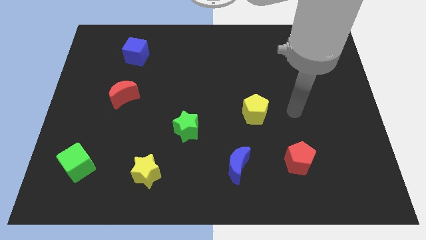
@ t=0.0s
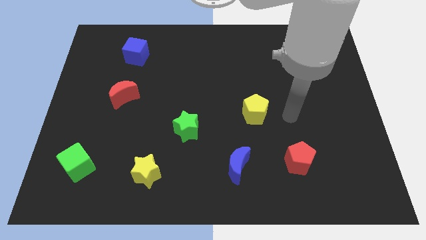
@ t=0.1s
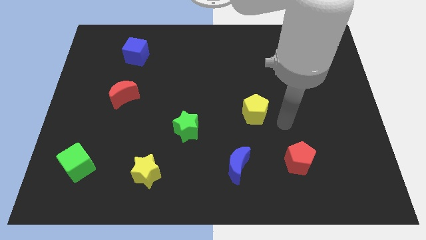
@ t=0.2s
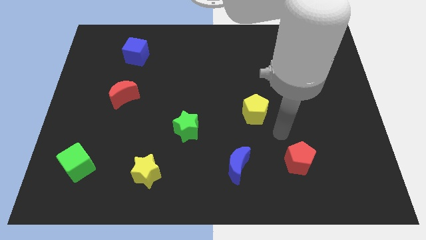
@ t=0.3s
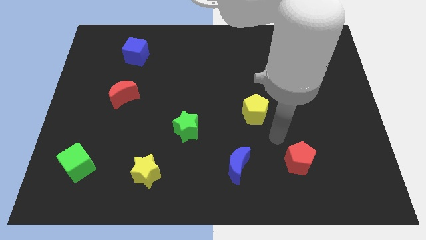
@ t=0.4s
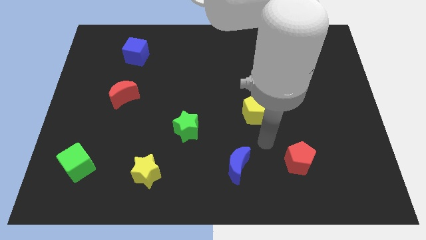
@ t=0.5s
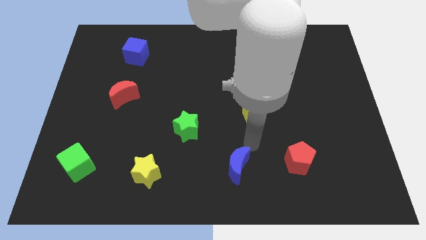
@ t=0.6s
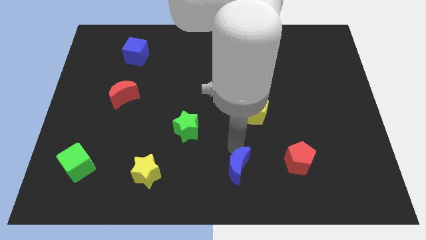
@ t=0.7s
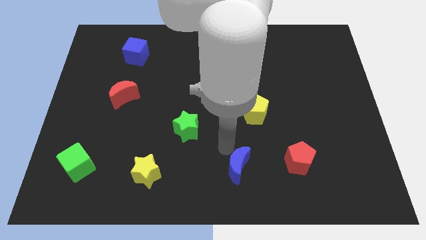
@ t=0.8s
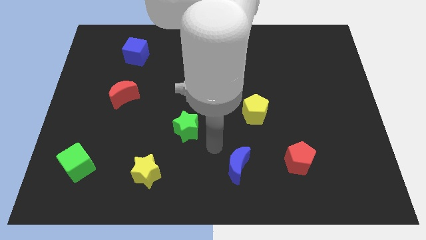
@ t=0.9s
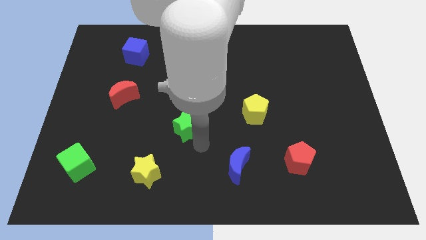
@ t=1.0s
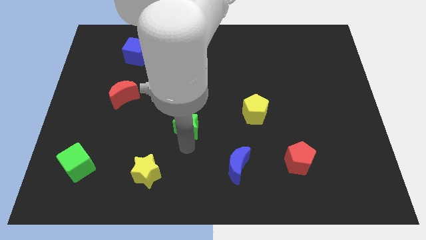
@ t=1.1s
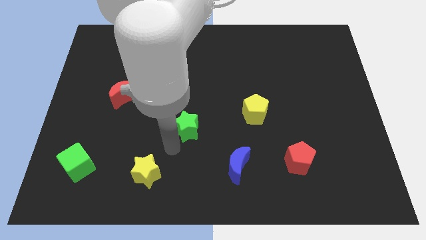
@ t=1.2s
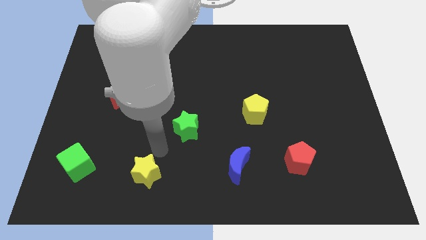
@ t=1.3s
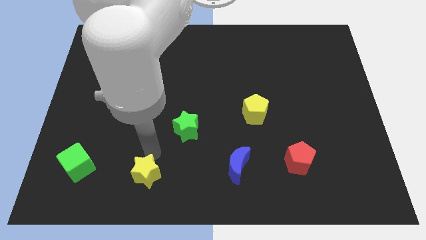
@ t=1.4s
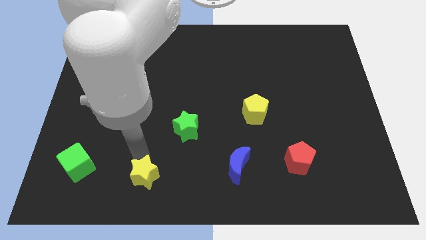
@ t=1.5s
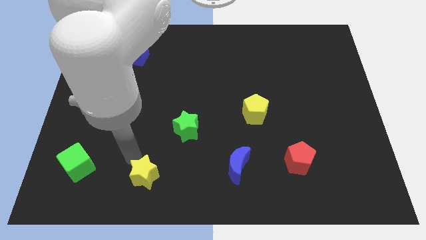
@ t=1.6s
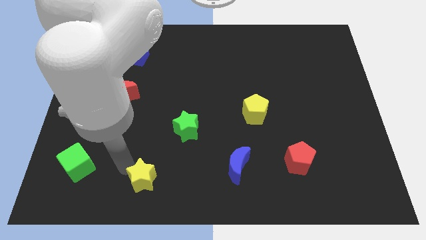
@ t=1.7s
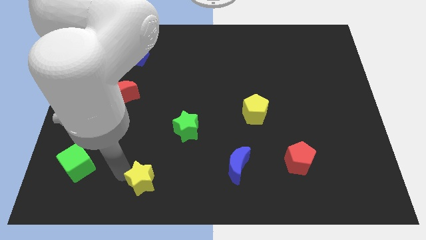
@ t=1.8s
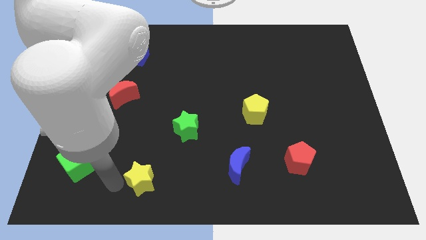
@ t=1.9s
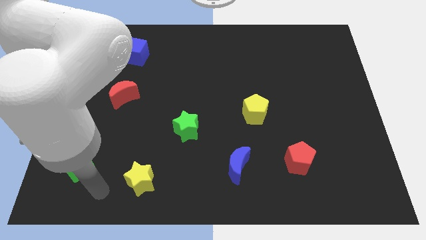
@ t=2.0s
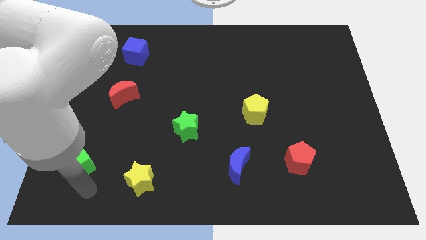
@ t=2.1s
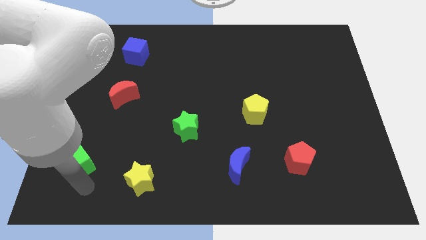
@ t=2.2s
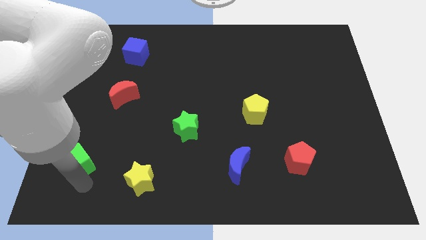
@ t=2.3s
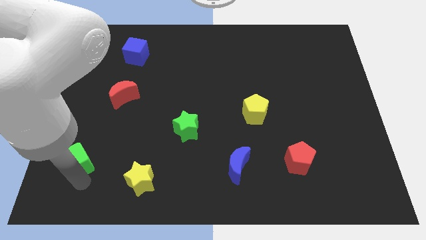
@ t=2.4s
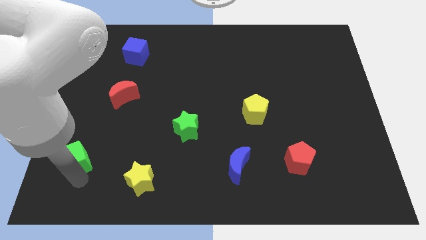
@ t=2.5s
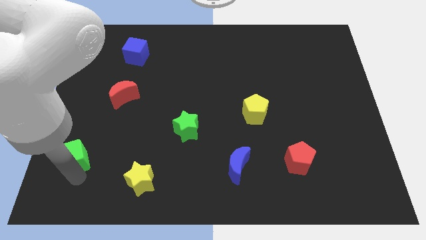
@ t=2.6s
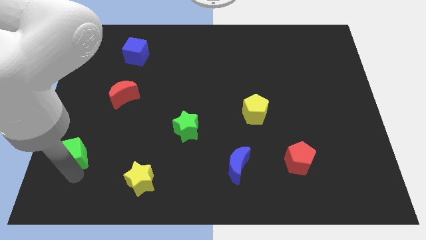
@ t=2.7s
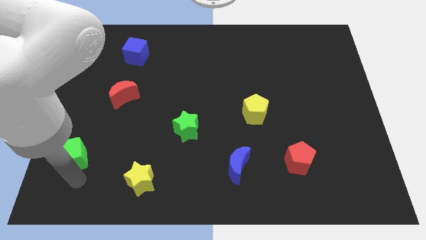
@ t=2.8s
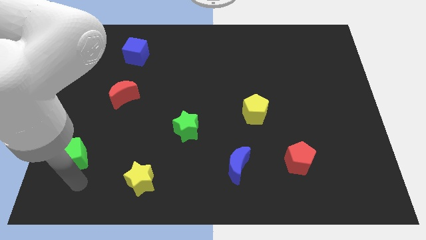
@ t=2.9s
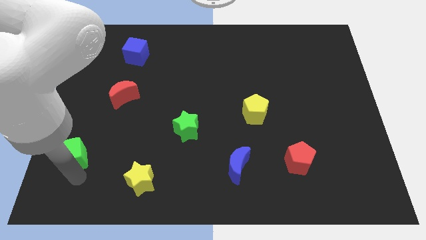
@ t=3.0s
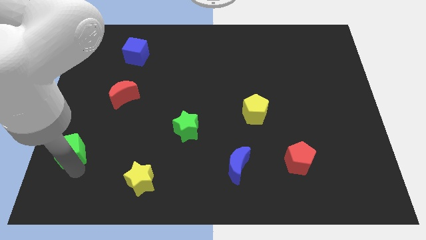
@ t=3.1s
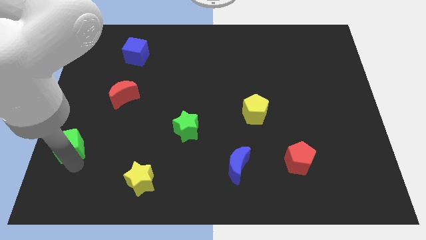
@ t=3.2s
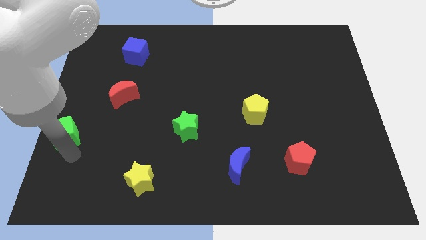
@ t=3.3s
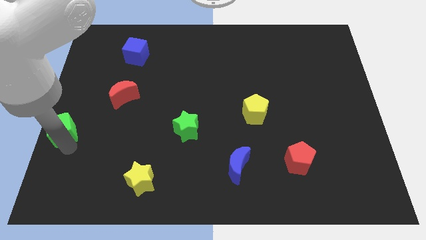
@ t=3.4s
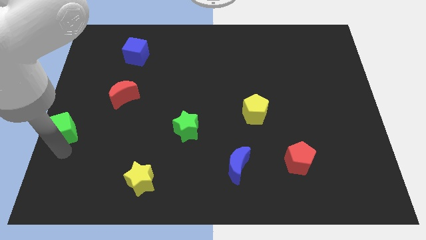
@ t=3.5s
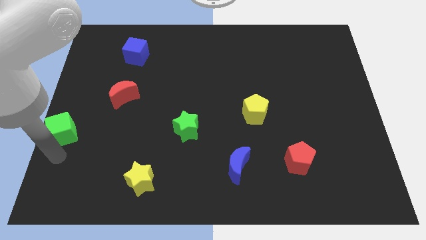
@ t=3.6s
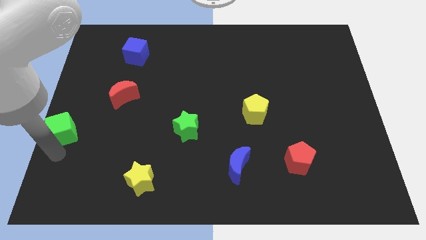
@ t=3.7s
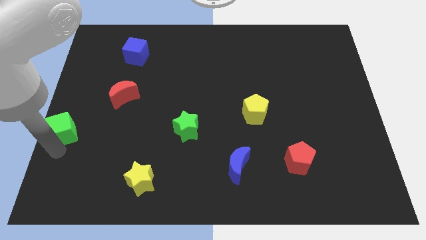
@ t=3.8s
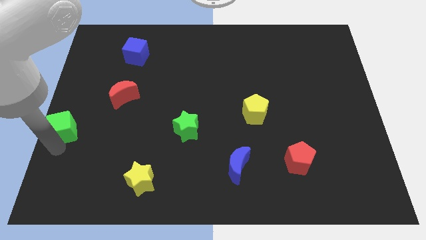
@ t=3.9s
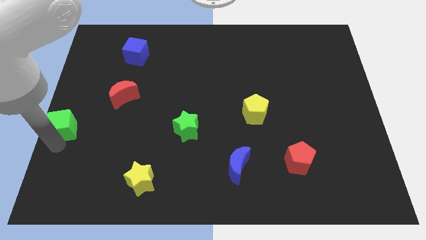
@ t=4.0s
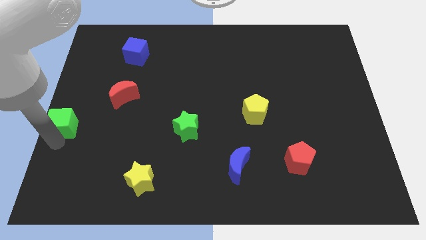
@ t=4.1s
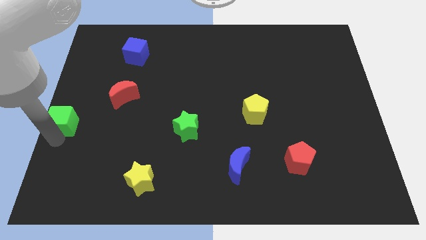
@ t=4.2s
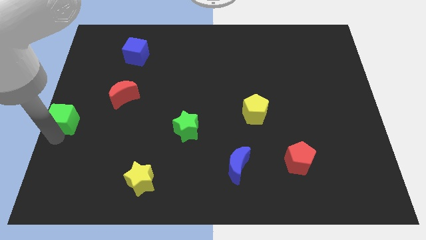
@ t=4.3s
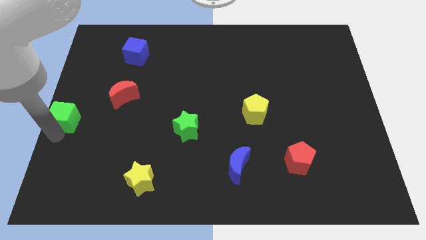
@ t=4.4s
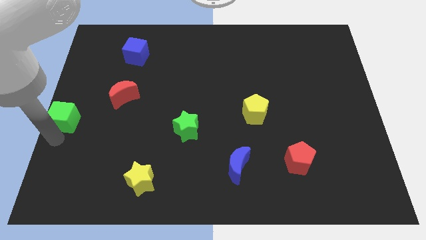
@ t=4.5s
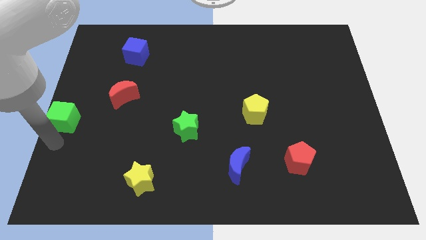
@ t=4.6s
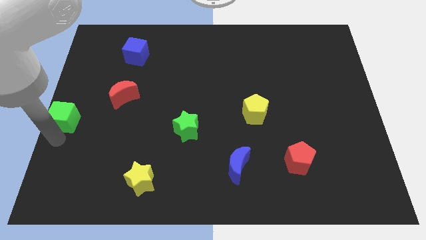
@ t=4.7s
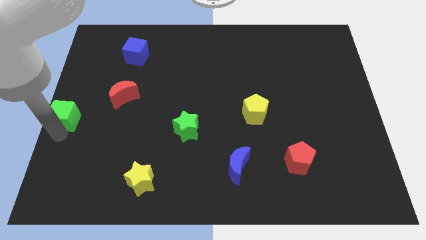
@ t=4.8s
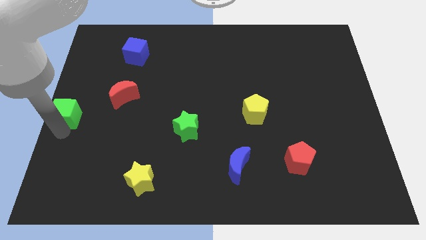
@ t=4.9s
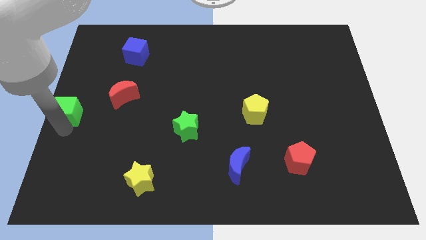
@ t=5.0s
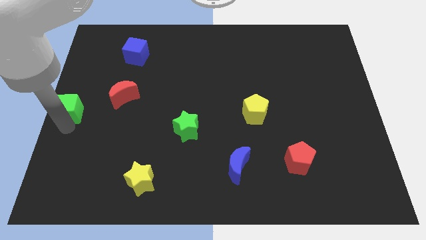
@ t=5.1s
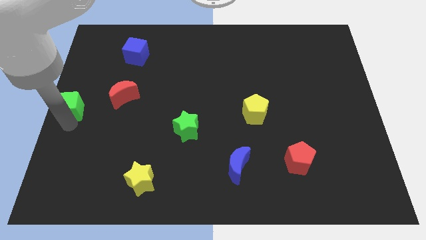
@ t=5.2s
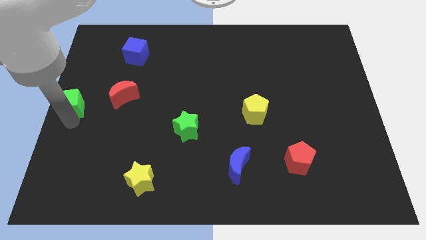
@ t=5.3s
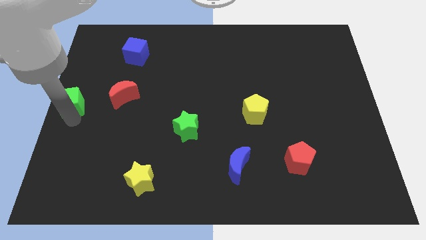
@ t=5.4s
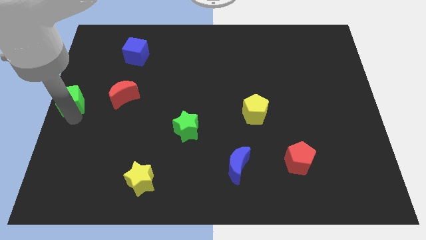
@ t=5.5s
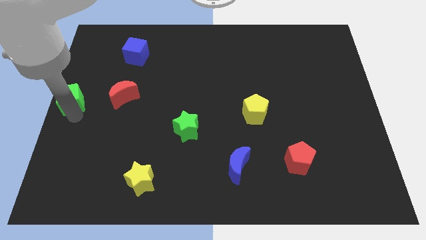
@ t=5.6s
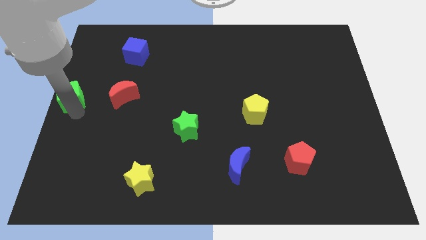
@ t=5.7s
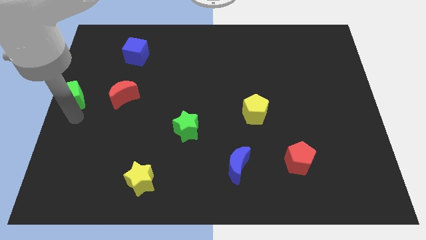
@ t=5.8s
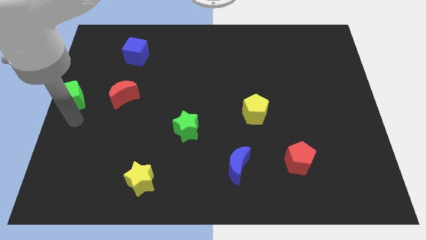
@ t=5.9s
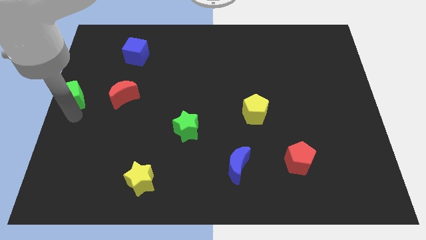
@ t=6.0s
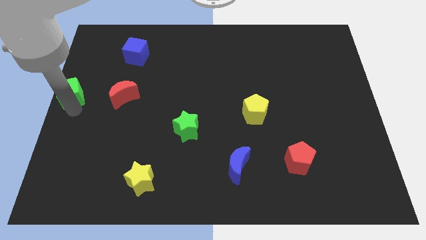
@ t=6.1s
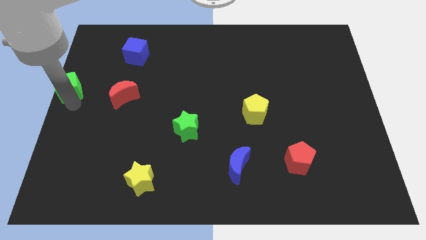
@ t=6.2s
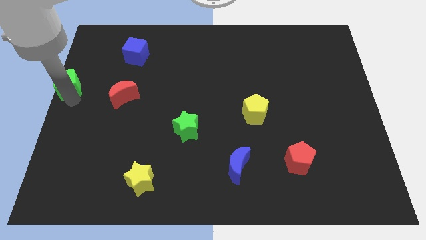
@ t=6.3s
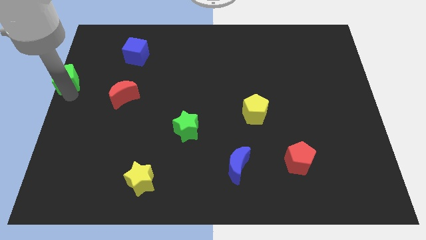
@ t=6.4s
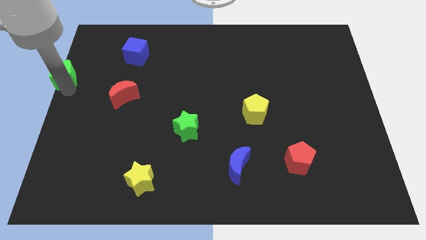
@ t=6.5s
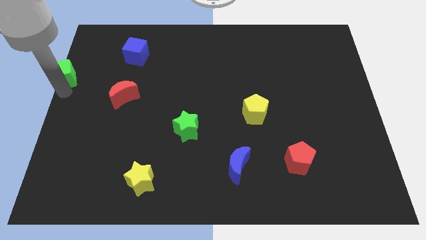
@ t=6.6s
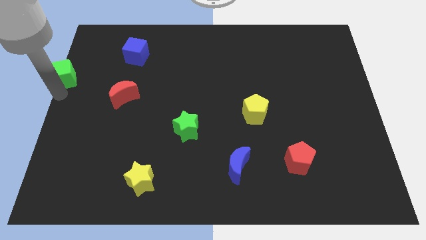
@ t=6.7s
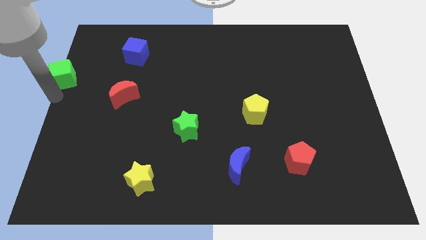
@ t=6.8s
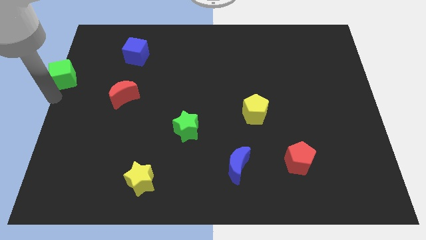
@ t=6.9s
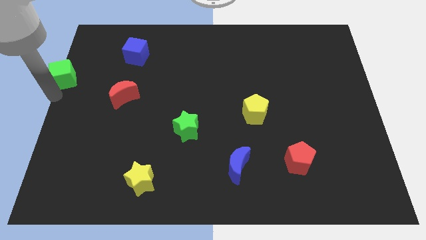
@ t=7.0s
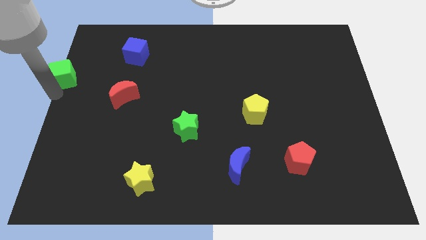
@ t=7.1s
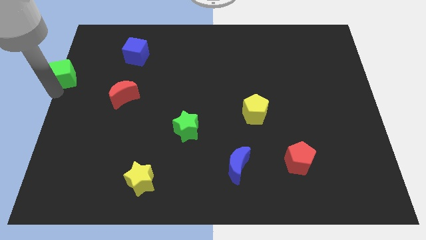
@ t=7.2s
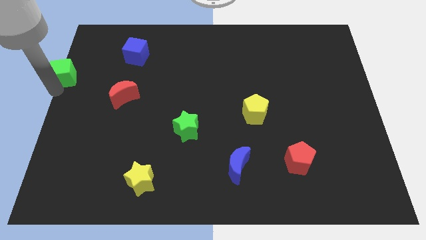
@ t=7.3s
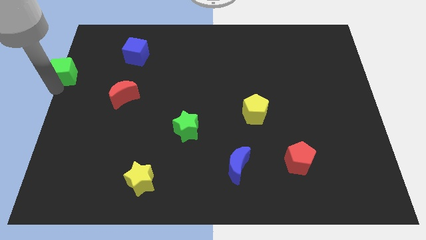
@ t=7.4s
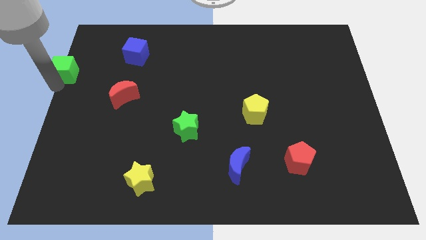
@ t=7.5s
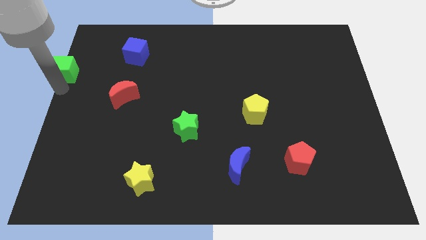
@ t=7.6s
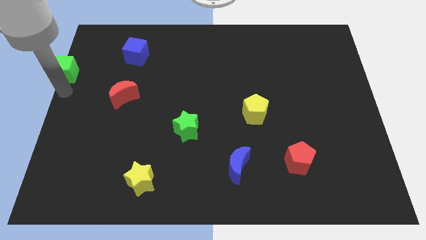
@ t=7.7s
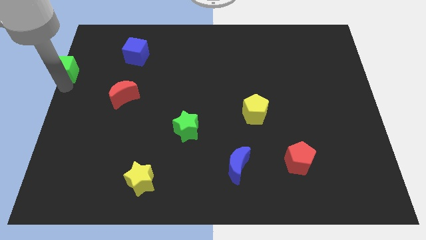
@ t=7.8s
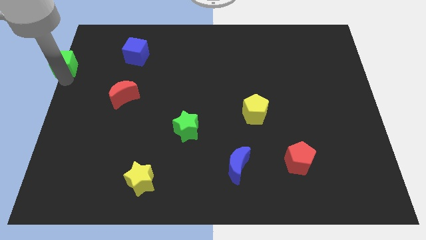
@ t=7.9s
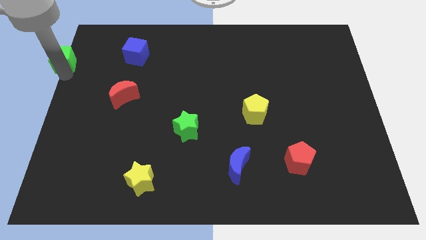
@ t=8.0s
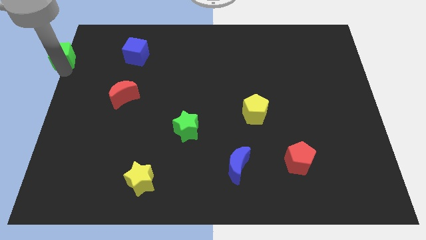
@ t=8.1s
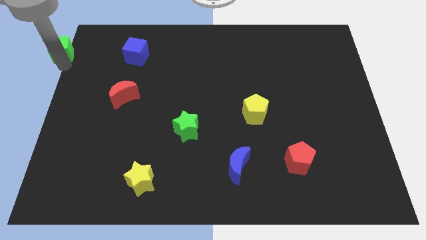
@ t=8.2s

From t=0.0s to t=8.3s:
move the green cube to the top left of the board
